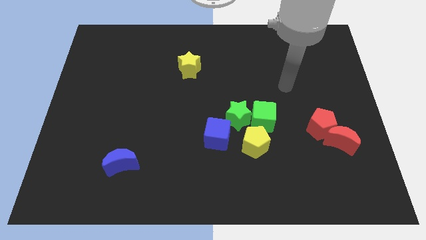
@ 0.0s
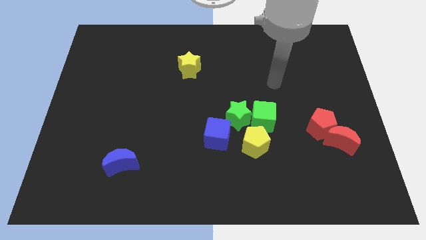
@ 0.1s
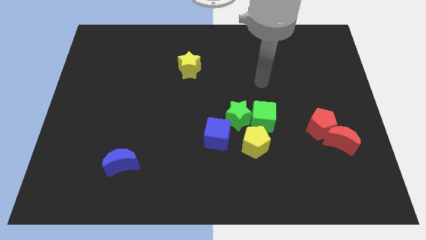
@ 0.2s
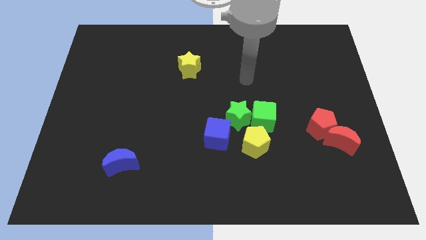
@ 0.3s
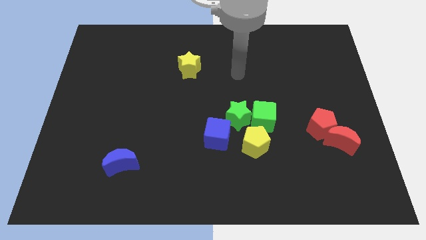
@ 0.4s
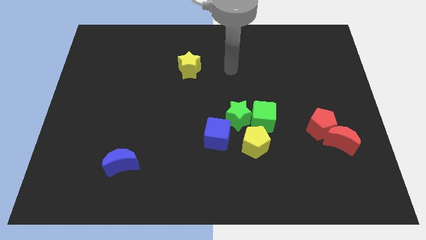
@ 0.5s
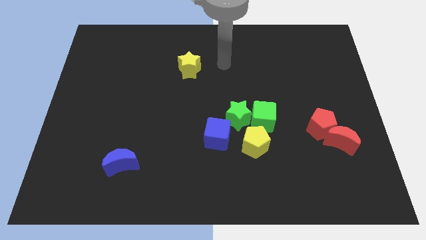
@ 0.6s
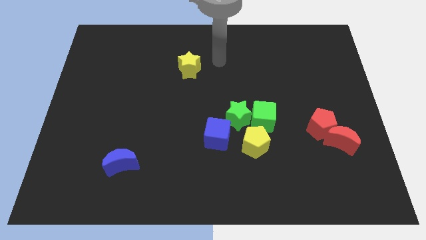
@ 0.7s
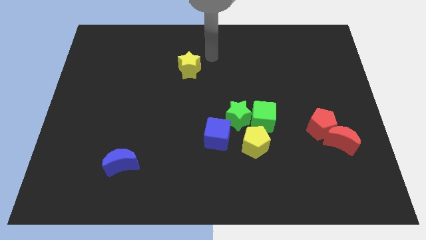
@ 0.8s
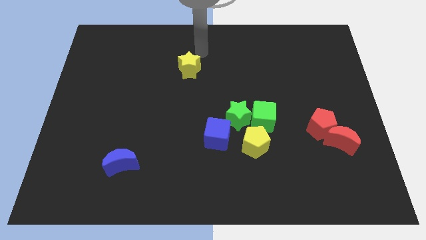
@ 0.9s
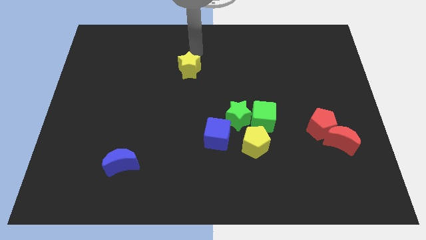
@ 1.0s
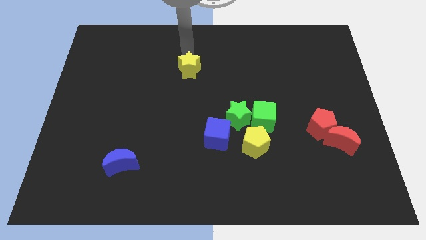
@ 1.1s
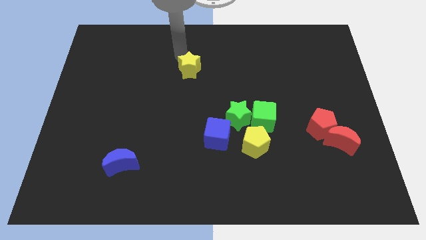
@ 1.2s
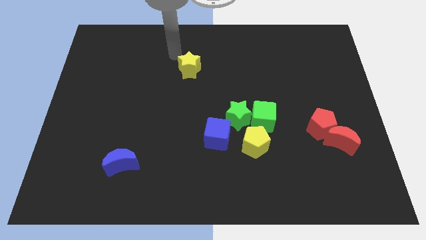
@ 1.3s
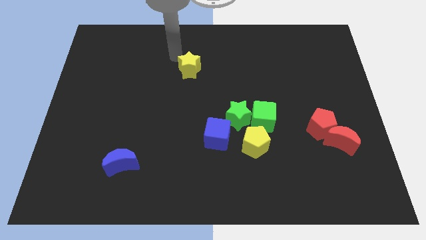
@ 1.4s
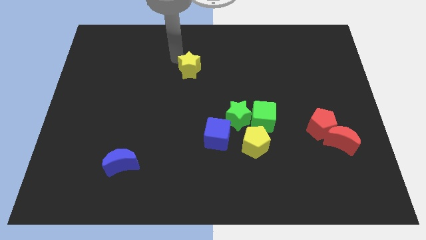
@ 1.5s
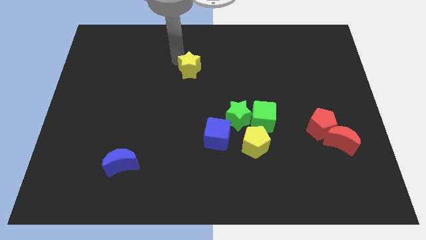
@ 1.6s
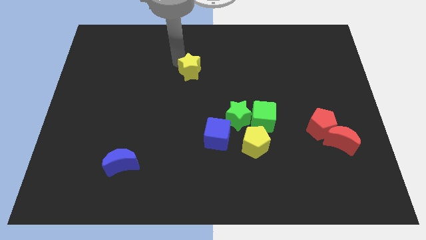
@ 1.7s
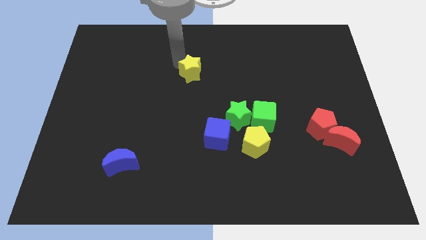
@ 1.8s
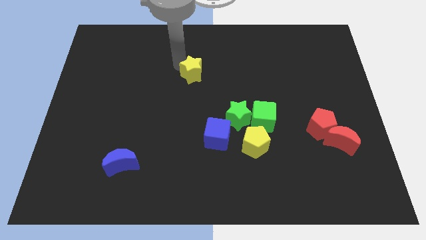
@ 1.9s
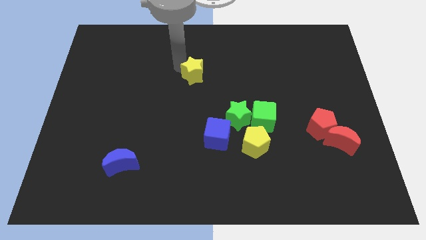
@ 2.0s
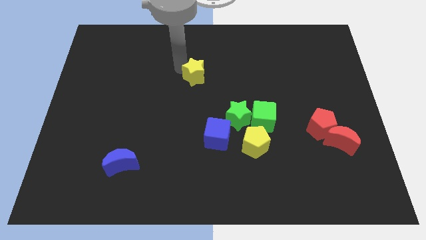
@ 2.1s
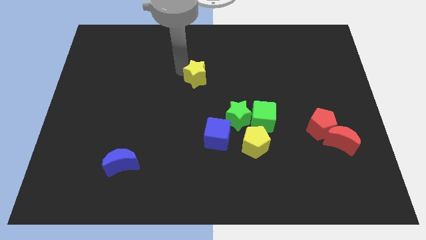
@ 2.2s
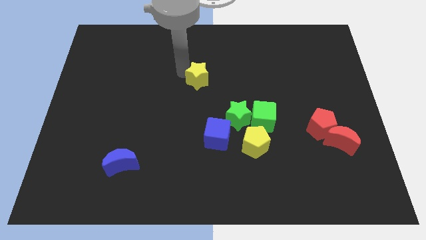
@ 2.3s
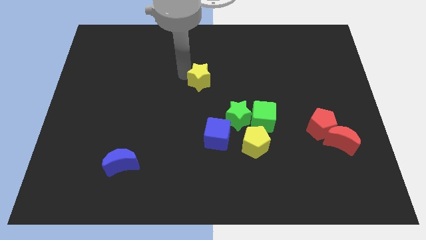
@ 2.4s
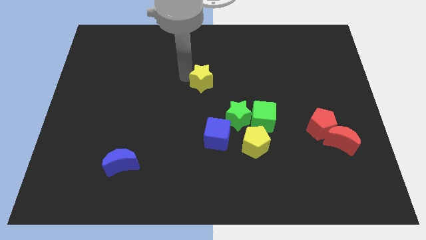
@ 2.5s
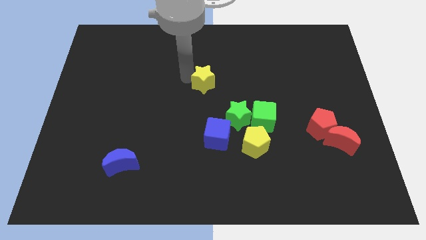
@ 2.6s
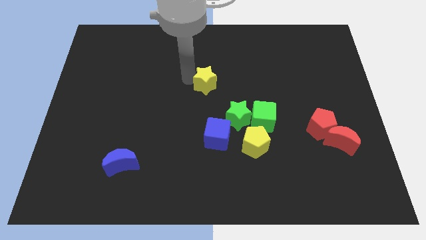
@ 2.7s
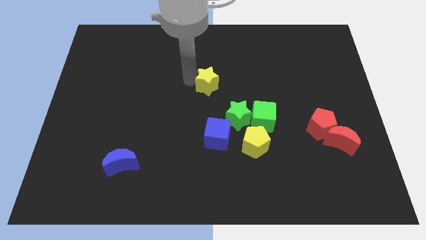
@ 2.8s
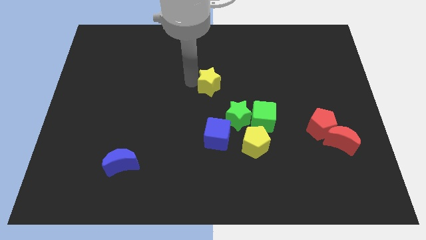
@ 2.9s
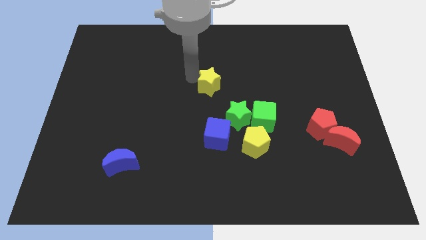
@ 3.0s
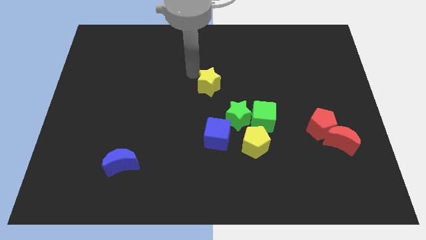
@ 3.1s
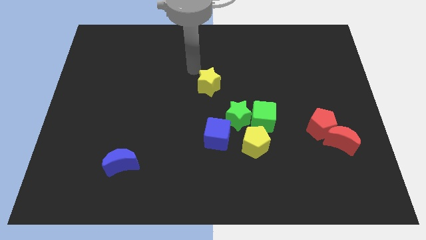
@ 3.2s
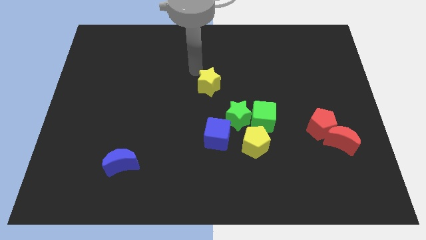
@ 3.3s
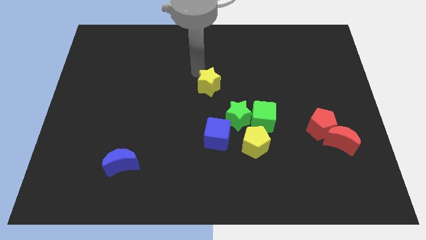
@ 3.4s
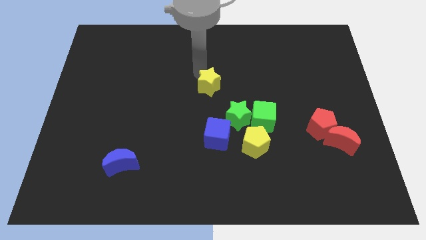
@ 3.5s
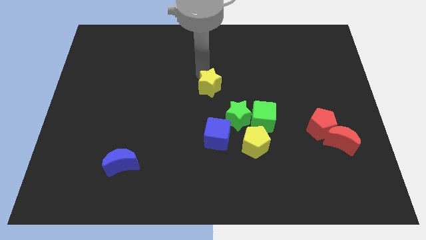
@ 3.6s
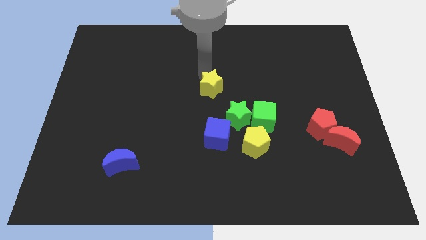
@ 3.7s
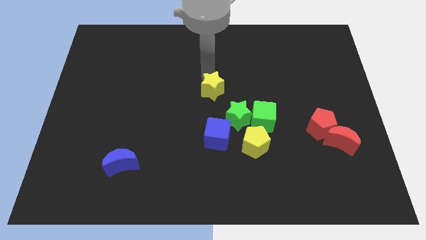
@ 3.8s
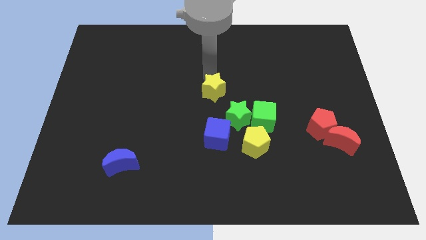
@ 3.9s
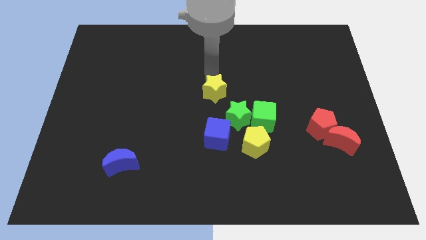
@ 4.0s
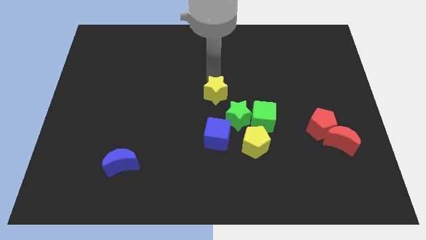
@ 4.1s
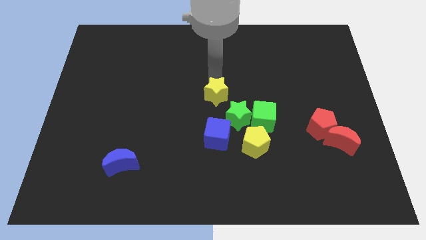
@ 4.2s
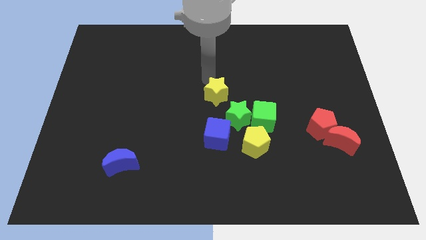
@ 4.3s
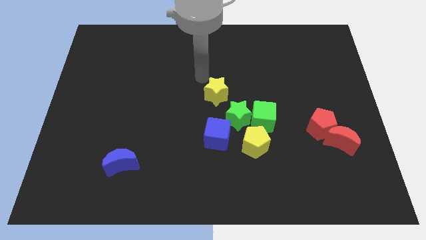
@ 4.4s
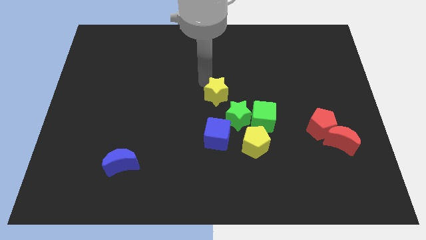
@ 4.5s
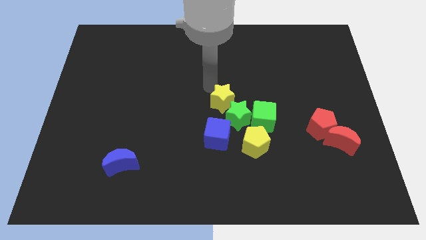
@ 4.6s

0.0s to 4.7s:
push the yellow star towards the green star

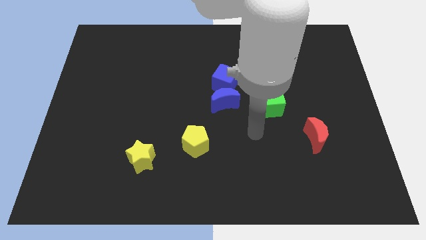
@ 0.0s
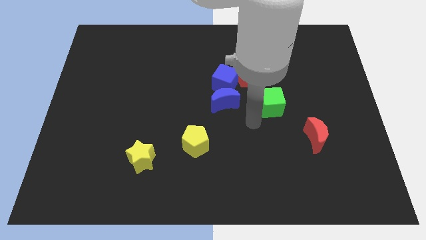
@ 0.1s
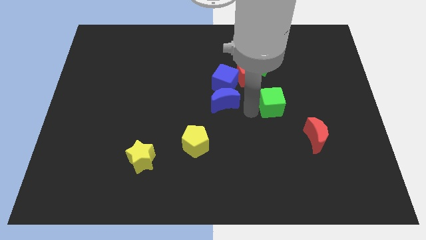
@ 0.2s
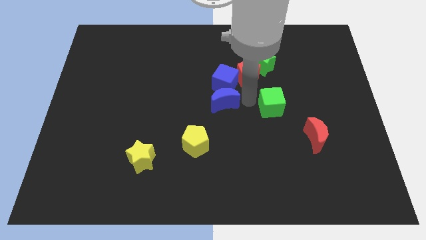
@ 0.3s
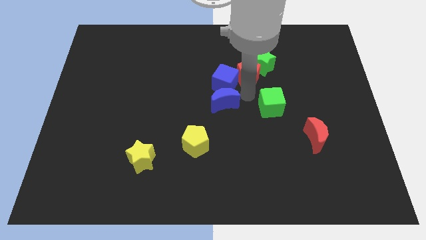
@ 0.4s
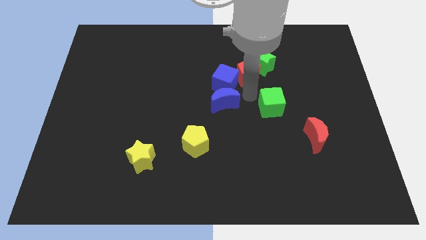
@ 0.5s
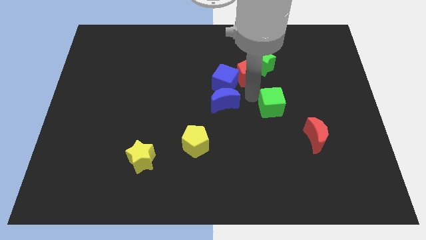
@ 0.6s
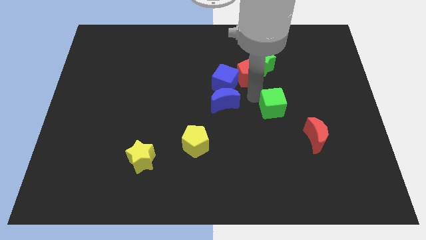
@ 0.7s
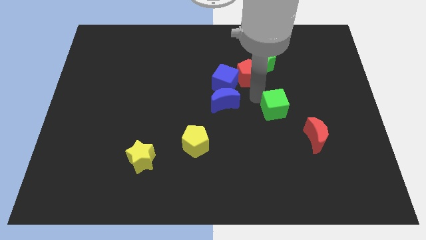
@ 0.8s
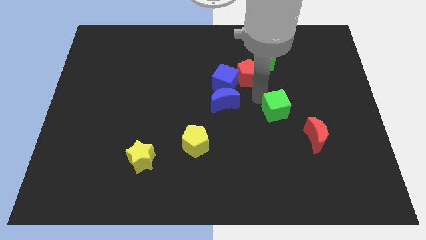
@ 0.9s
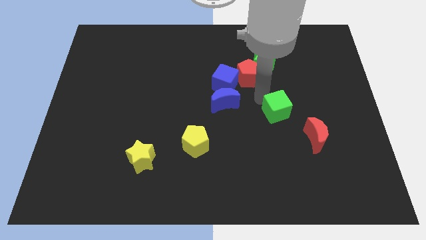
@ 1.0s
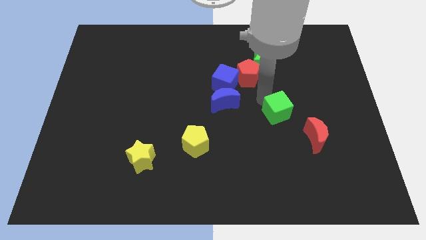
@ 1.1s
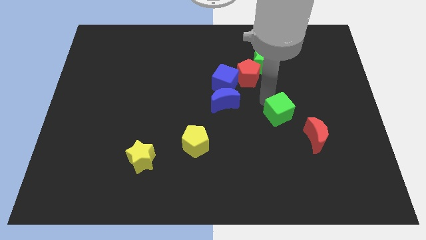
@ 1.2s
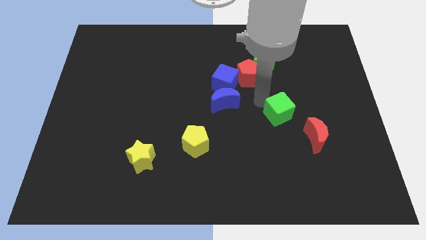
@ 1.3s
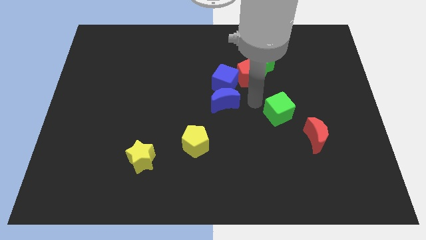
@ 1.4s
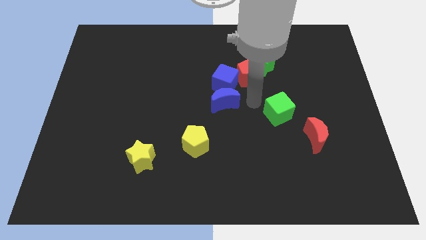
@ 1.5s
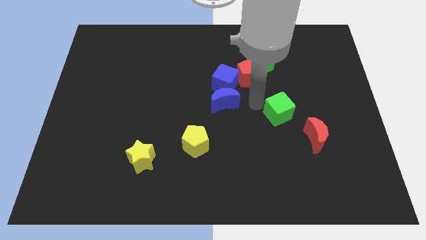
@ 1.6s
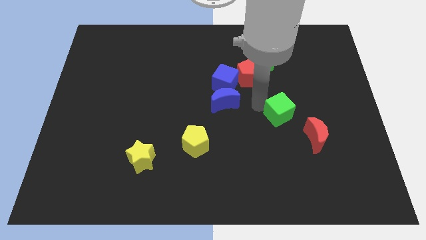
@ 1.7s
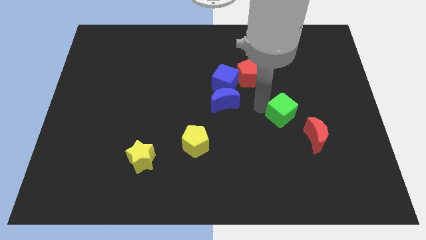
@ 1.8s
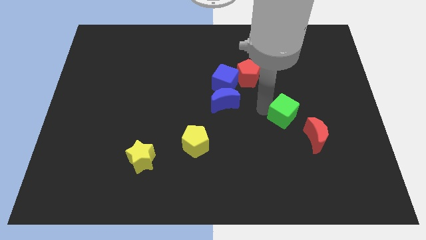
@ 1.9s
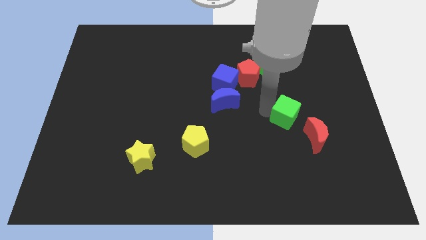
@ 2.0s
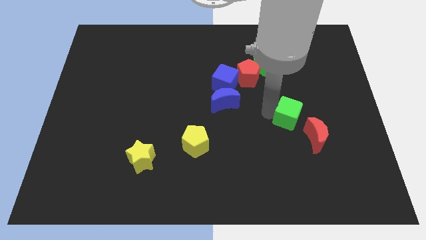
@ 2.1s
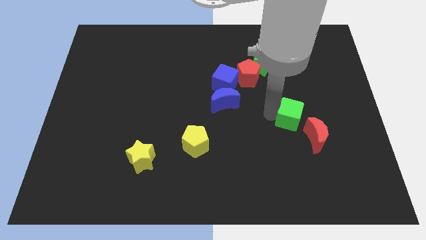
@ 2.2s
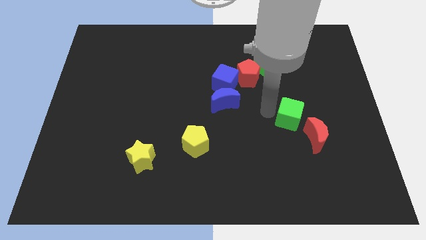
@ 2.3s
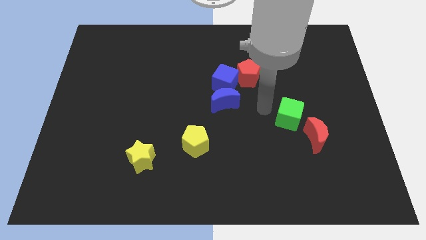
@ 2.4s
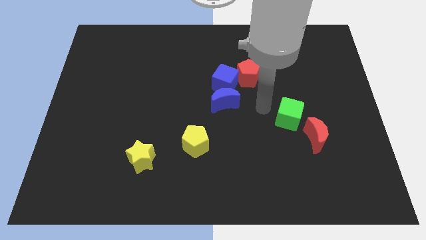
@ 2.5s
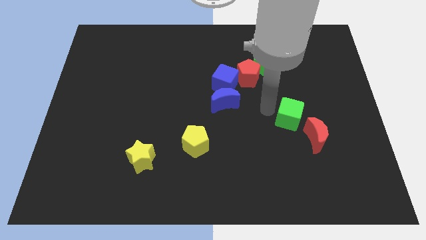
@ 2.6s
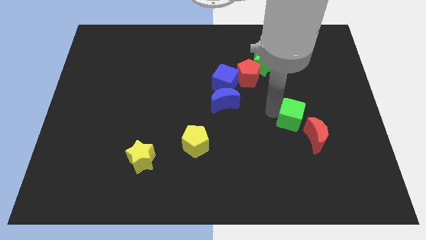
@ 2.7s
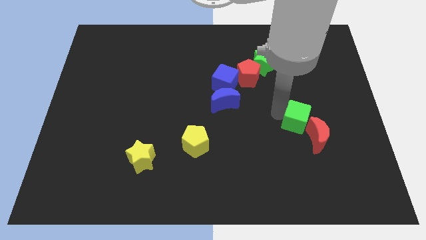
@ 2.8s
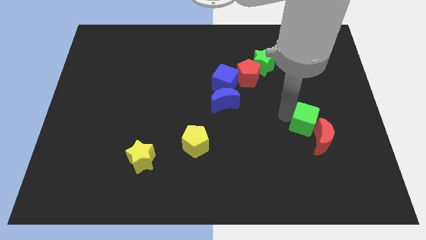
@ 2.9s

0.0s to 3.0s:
put the green cube towards the red moon
